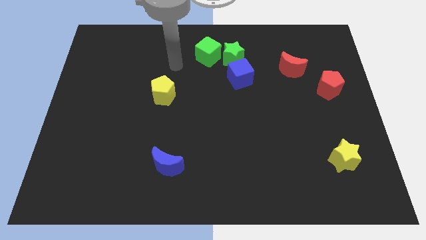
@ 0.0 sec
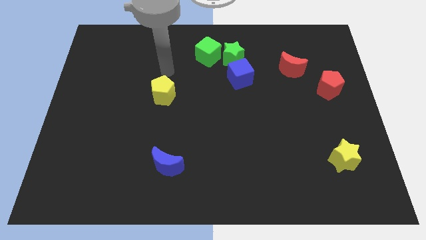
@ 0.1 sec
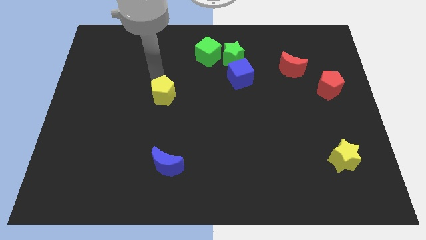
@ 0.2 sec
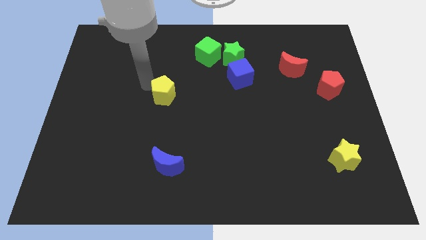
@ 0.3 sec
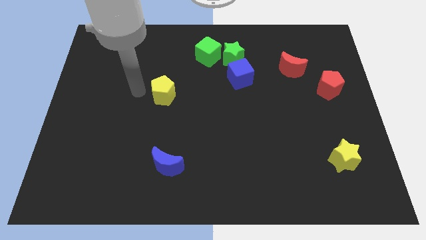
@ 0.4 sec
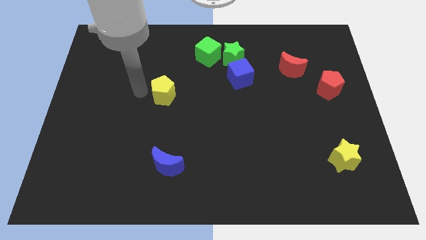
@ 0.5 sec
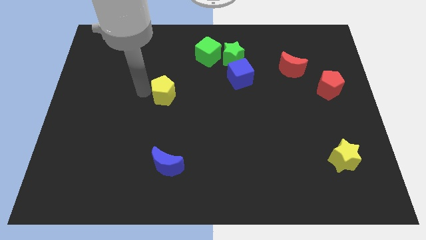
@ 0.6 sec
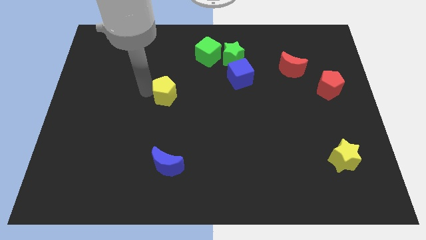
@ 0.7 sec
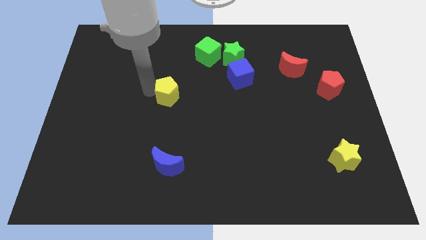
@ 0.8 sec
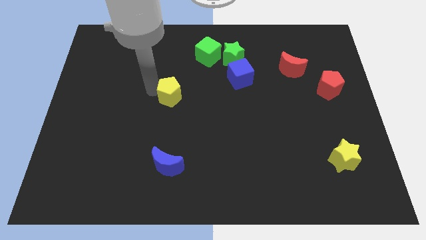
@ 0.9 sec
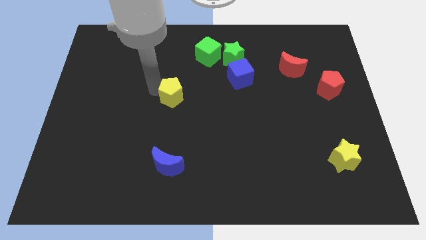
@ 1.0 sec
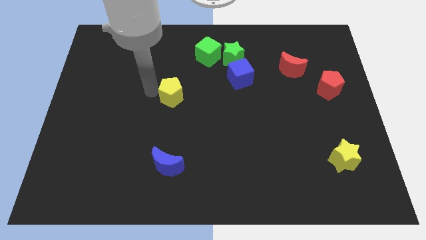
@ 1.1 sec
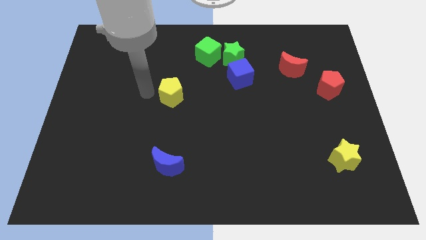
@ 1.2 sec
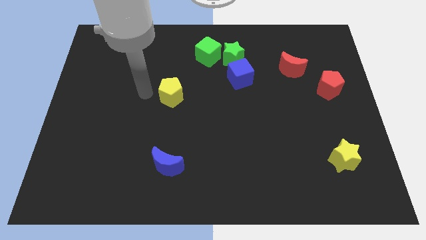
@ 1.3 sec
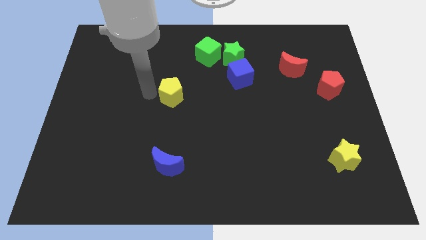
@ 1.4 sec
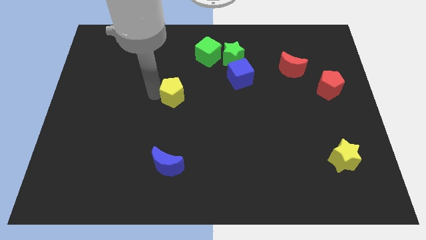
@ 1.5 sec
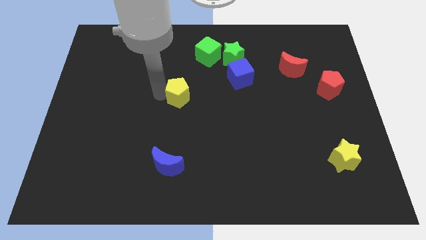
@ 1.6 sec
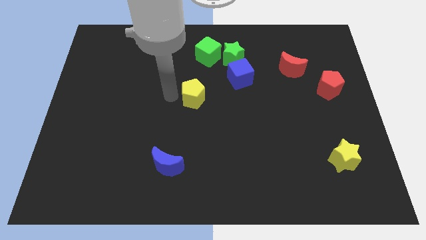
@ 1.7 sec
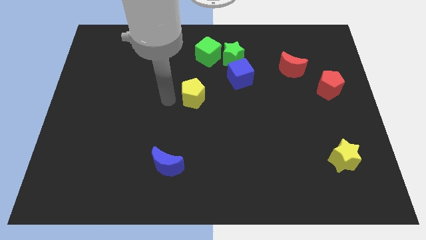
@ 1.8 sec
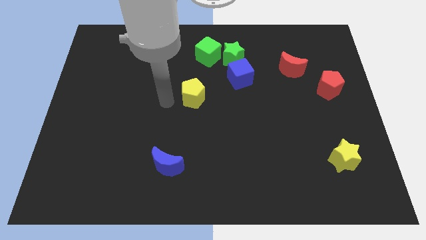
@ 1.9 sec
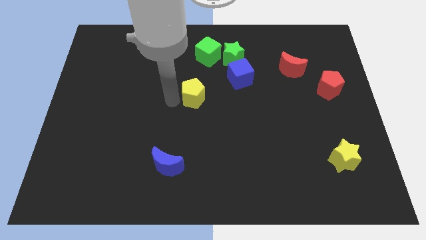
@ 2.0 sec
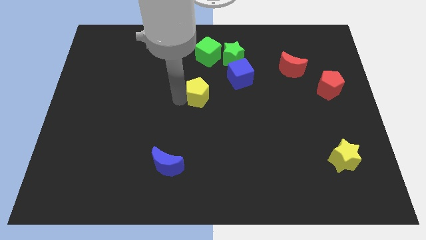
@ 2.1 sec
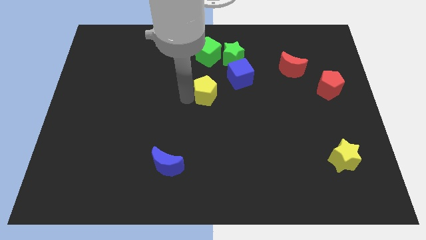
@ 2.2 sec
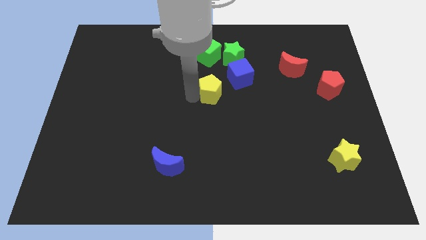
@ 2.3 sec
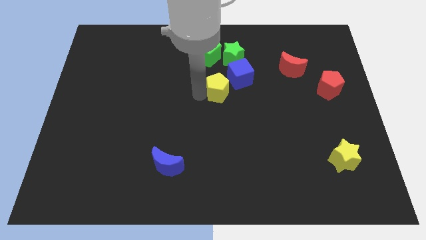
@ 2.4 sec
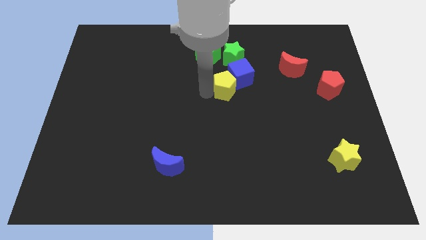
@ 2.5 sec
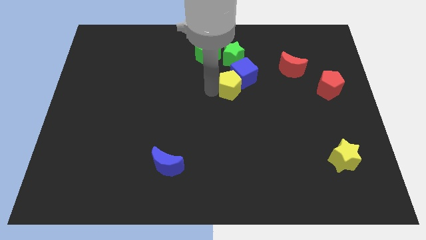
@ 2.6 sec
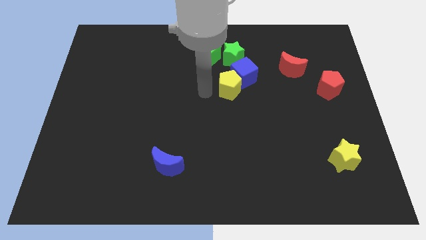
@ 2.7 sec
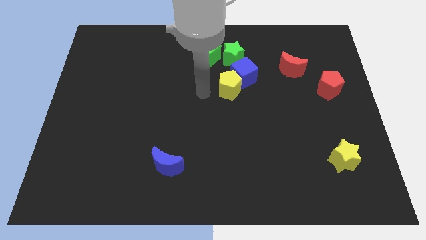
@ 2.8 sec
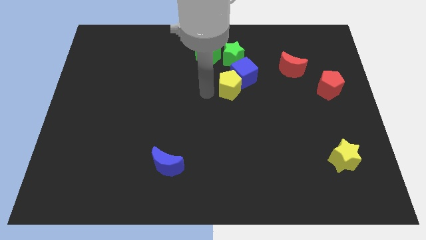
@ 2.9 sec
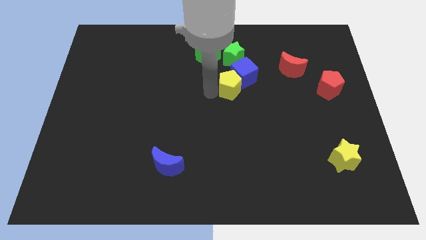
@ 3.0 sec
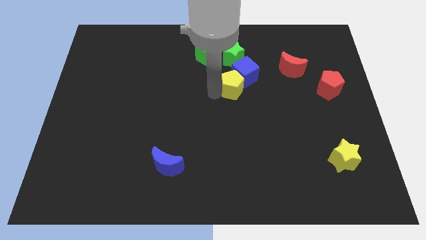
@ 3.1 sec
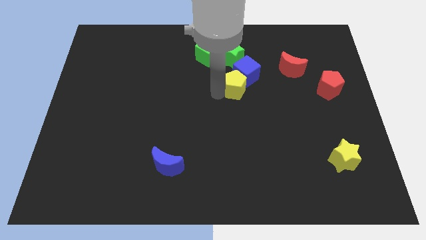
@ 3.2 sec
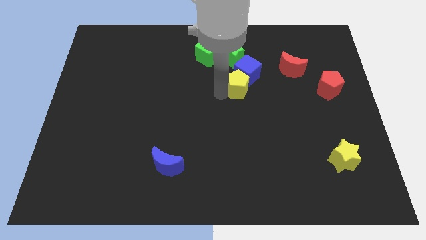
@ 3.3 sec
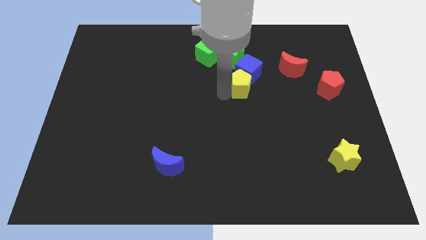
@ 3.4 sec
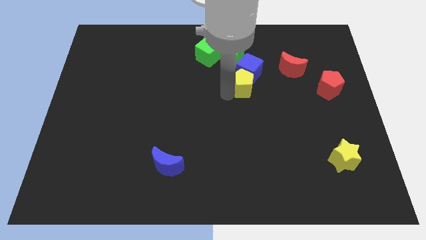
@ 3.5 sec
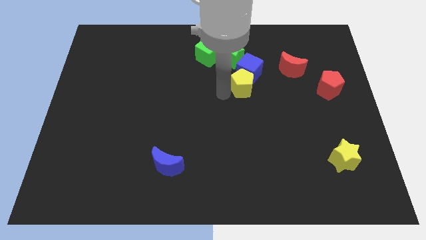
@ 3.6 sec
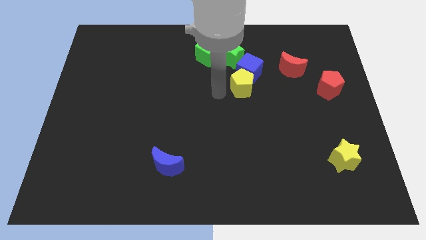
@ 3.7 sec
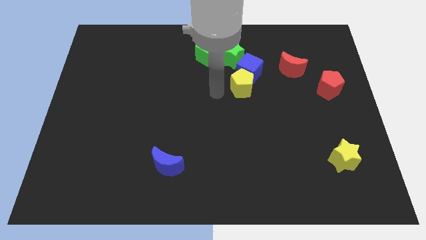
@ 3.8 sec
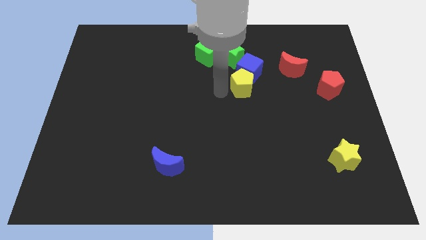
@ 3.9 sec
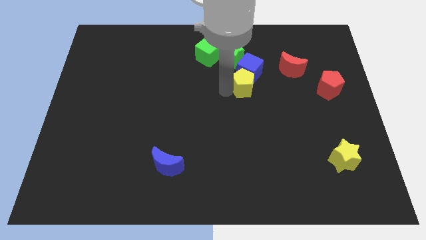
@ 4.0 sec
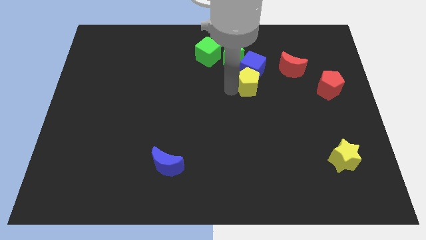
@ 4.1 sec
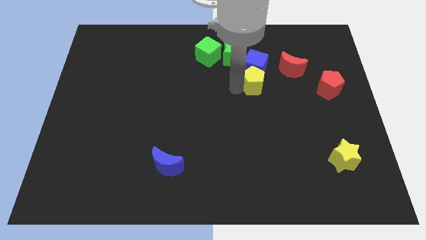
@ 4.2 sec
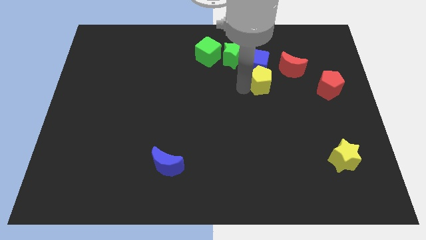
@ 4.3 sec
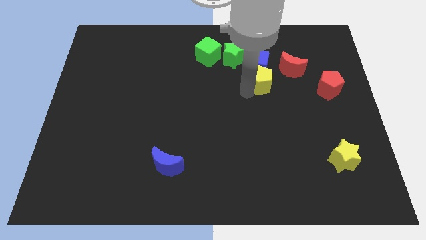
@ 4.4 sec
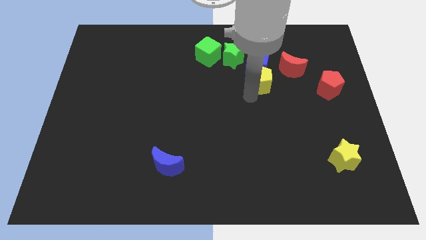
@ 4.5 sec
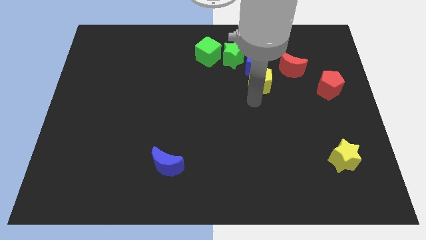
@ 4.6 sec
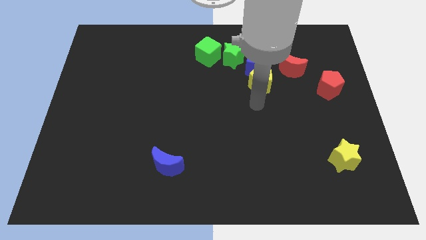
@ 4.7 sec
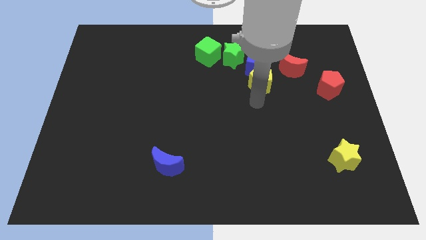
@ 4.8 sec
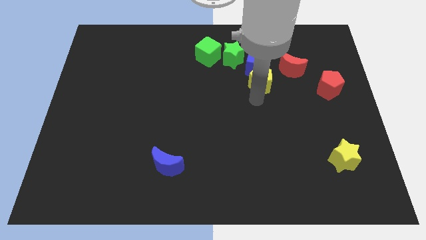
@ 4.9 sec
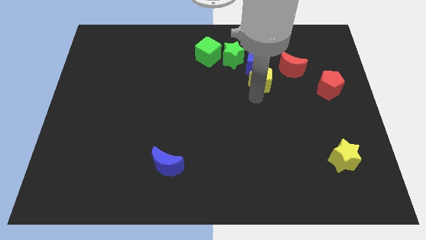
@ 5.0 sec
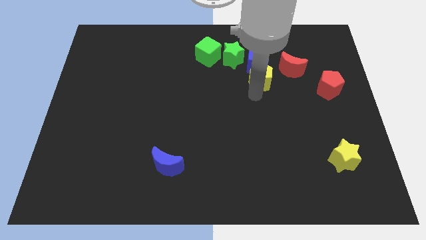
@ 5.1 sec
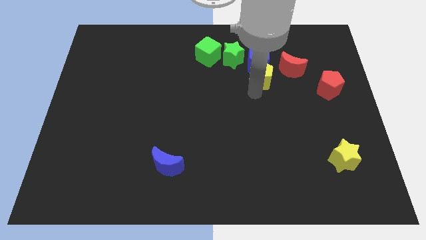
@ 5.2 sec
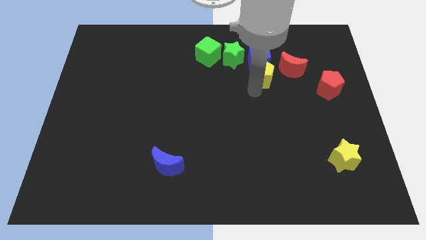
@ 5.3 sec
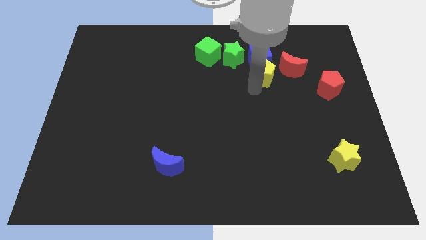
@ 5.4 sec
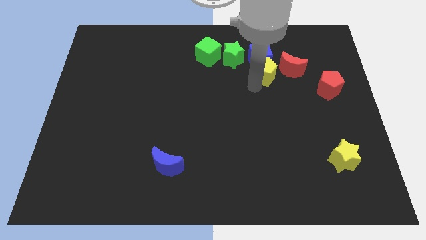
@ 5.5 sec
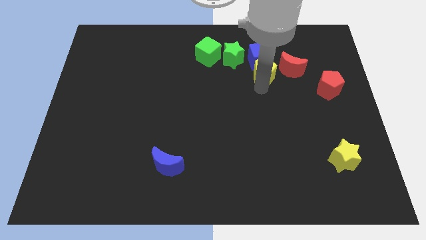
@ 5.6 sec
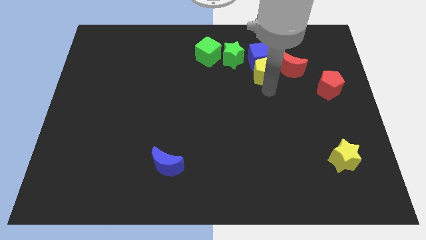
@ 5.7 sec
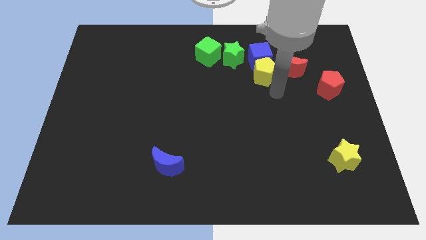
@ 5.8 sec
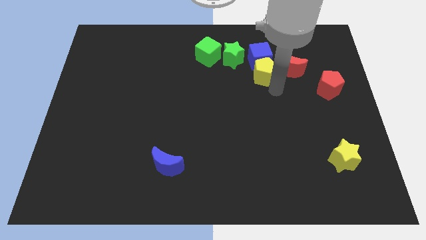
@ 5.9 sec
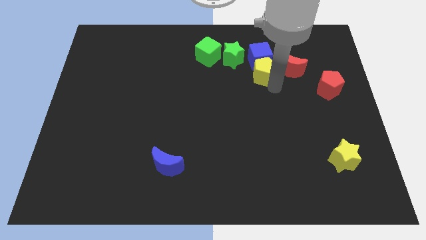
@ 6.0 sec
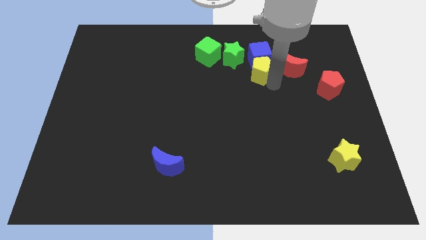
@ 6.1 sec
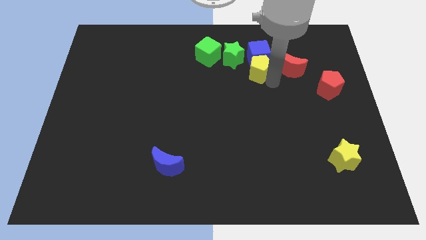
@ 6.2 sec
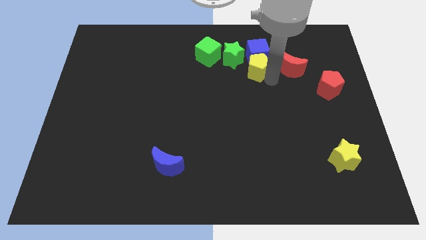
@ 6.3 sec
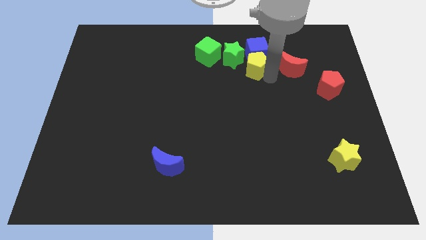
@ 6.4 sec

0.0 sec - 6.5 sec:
move the yellow pentagon right of the green cube

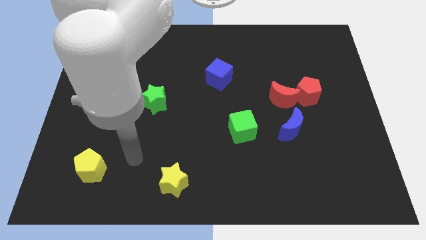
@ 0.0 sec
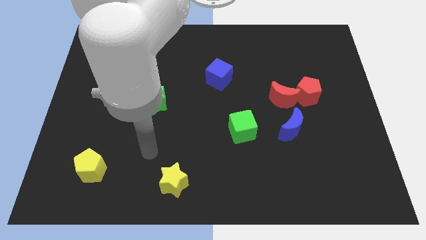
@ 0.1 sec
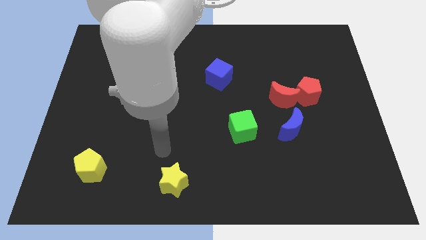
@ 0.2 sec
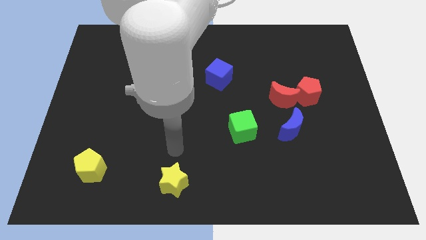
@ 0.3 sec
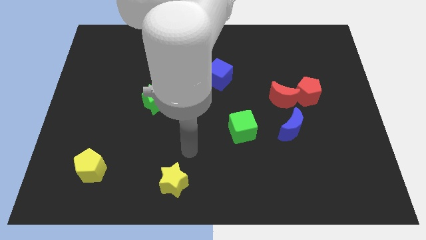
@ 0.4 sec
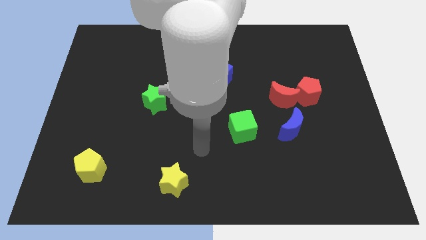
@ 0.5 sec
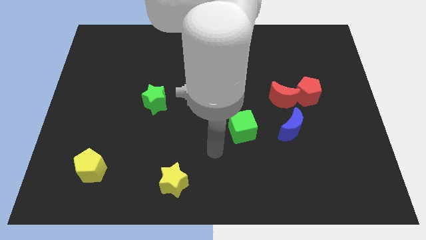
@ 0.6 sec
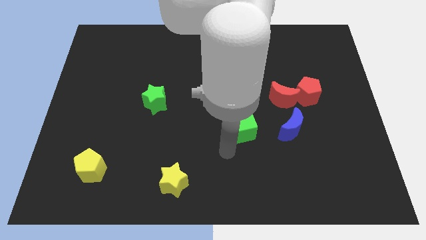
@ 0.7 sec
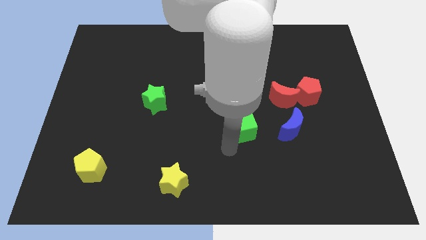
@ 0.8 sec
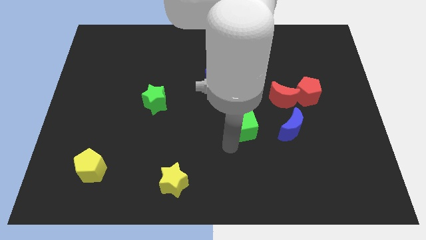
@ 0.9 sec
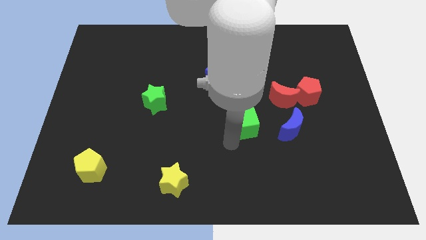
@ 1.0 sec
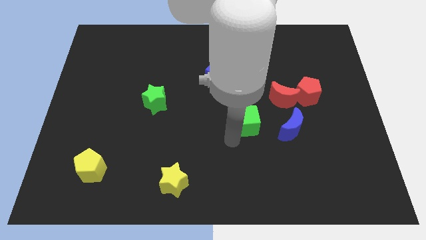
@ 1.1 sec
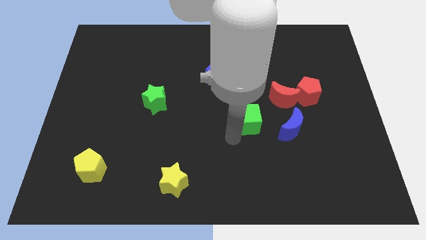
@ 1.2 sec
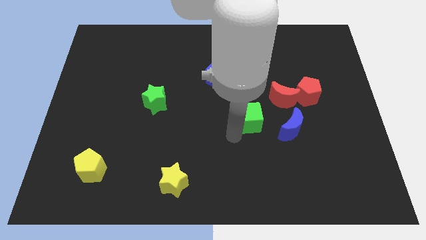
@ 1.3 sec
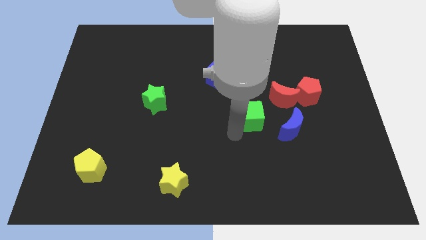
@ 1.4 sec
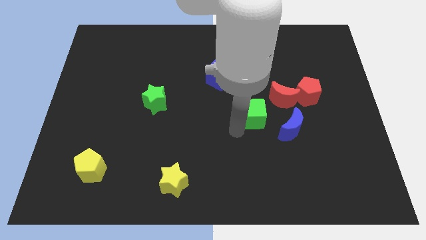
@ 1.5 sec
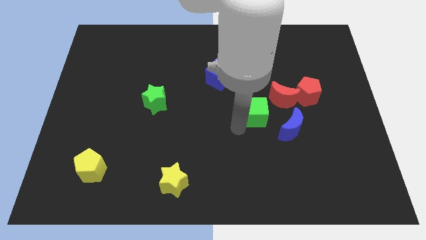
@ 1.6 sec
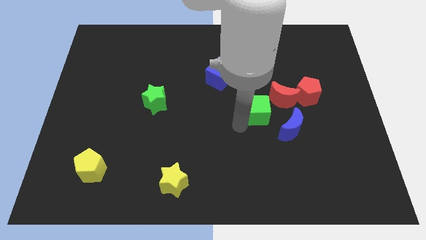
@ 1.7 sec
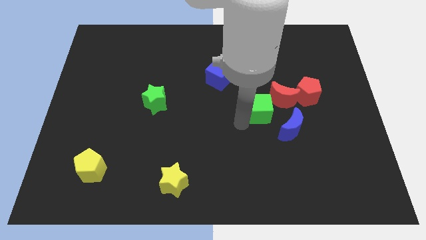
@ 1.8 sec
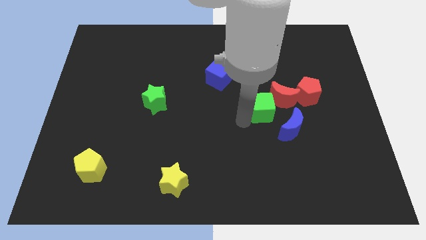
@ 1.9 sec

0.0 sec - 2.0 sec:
push the green cube to the left of the red pentagon
